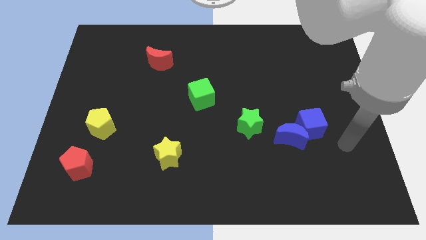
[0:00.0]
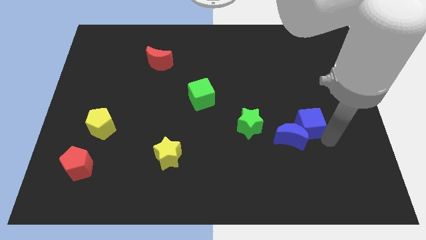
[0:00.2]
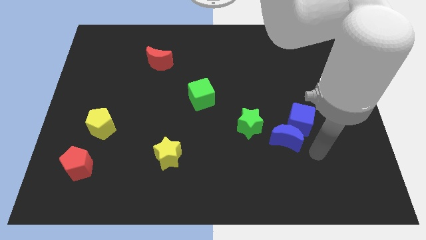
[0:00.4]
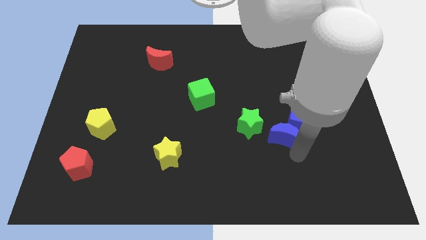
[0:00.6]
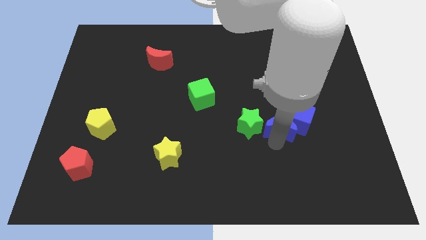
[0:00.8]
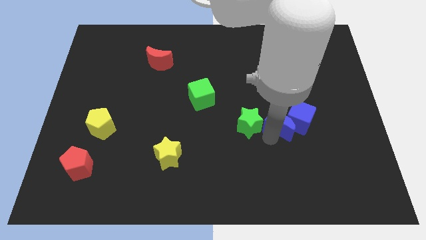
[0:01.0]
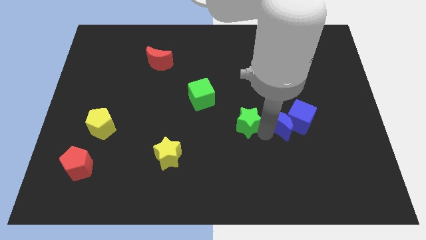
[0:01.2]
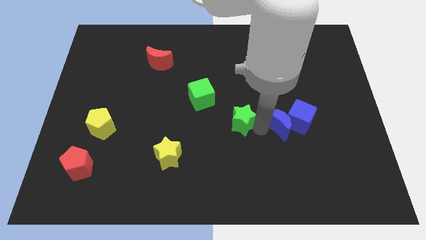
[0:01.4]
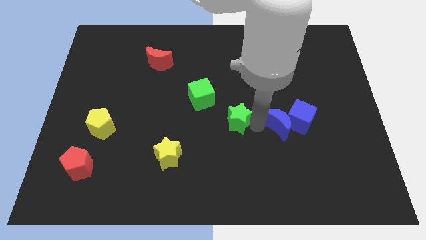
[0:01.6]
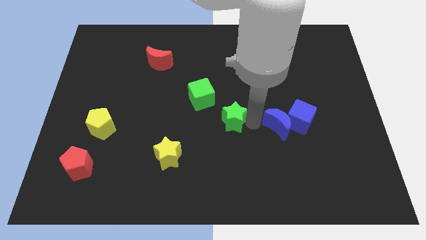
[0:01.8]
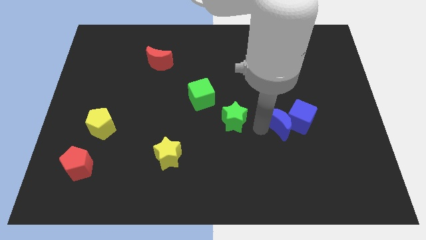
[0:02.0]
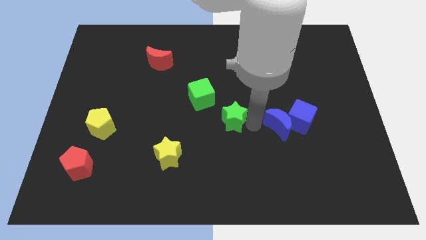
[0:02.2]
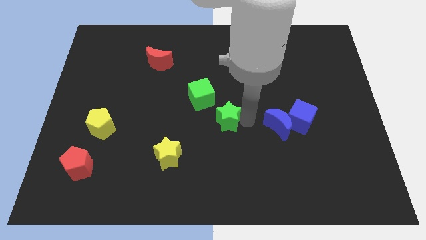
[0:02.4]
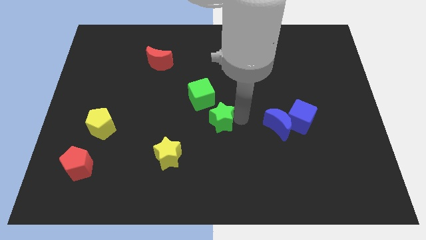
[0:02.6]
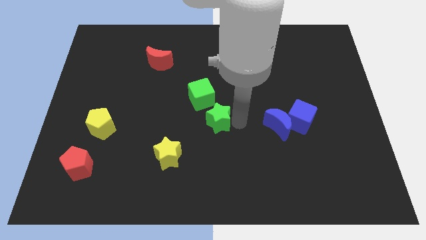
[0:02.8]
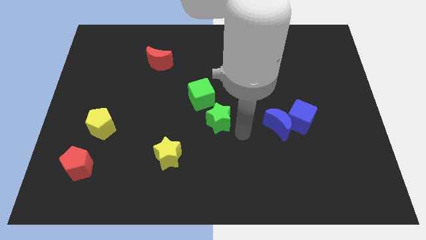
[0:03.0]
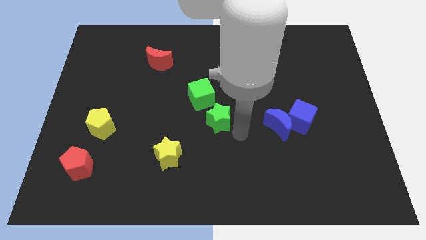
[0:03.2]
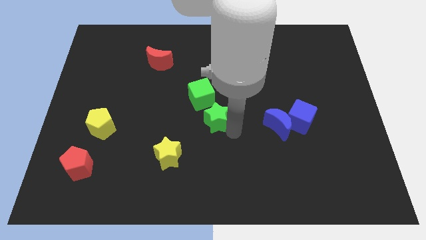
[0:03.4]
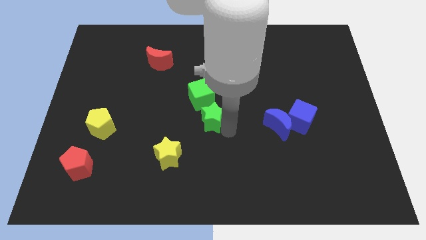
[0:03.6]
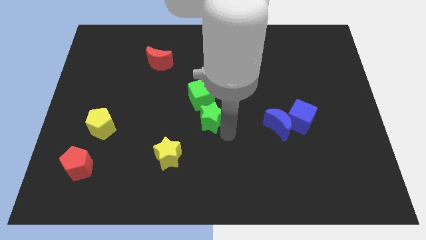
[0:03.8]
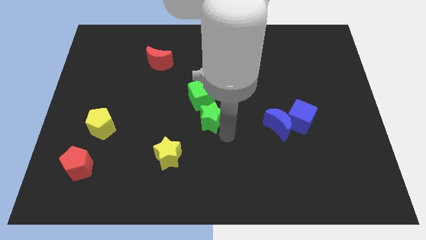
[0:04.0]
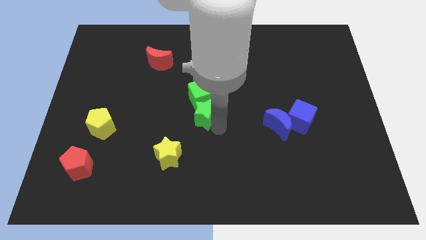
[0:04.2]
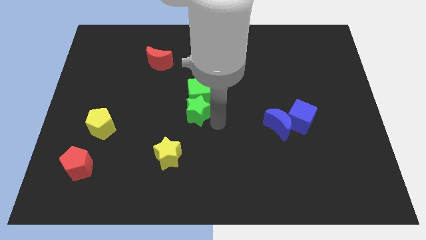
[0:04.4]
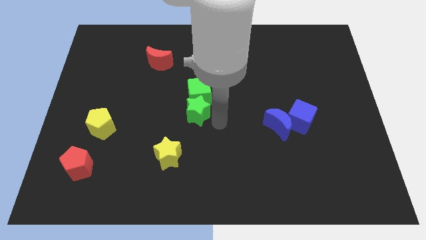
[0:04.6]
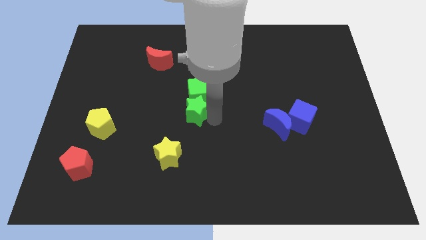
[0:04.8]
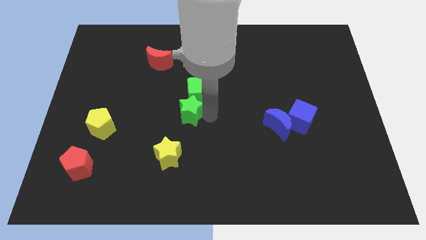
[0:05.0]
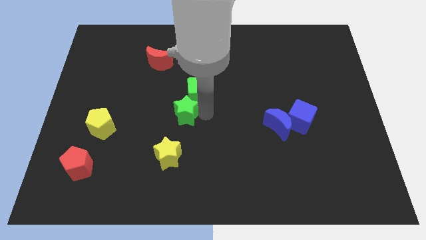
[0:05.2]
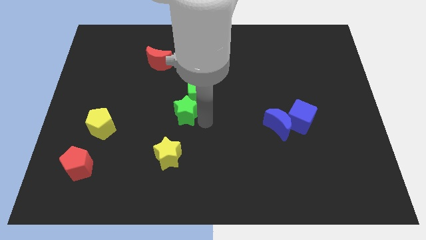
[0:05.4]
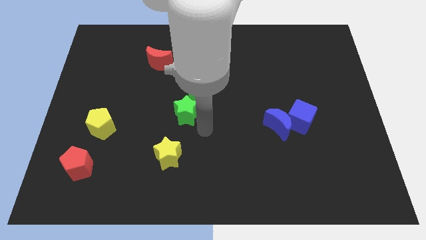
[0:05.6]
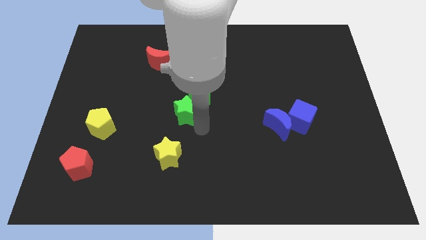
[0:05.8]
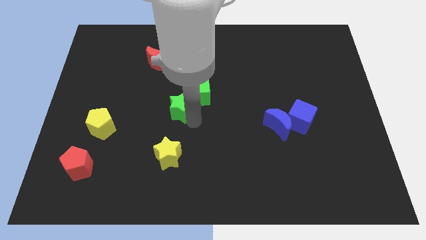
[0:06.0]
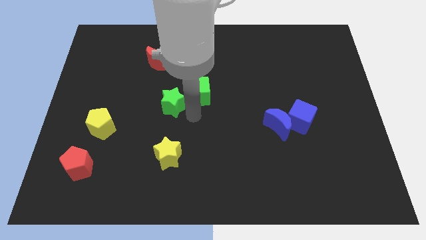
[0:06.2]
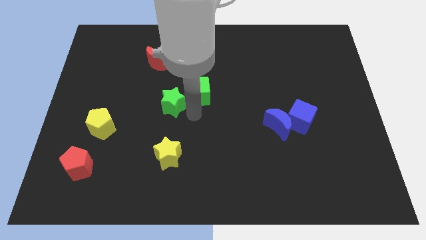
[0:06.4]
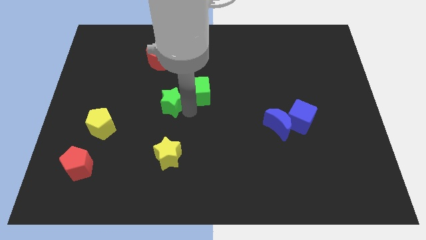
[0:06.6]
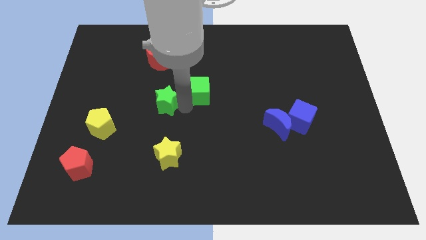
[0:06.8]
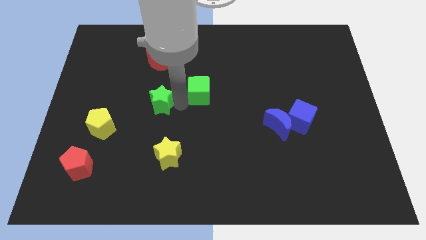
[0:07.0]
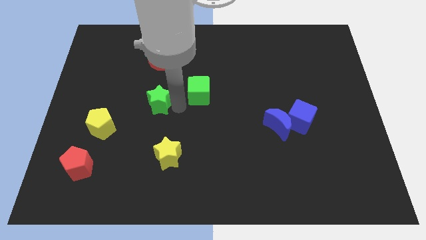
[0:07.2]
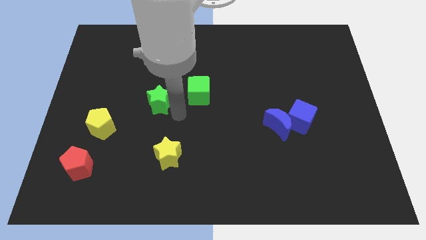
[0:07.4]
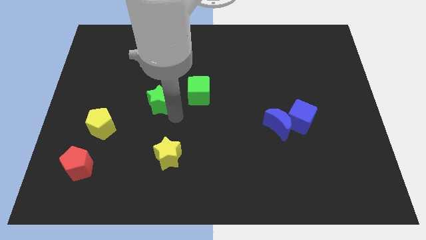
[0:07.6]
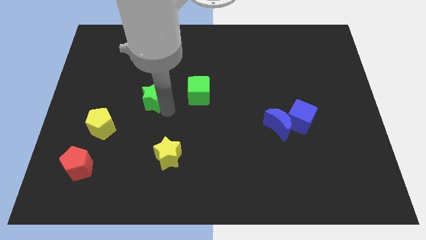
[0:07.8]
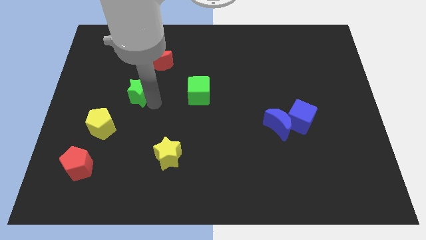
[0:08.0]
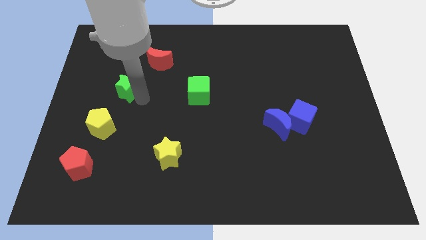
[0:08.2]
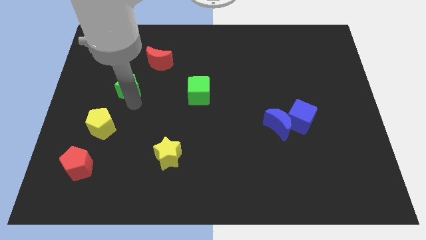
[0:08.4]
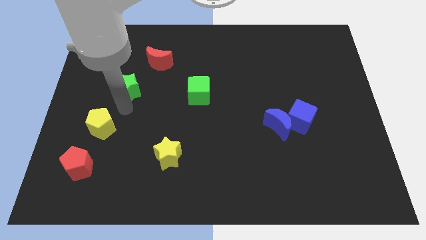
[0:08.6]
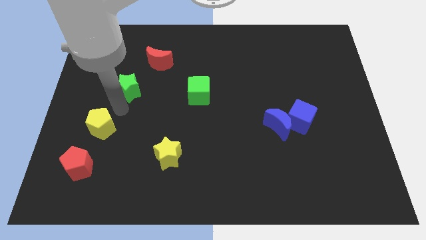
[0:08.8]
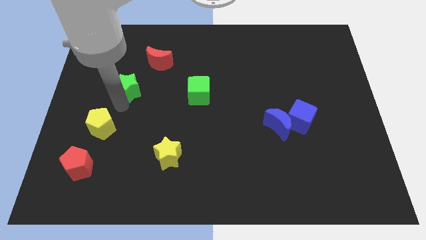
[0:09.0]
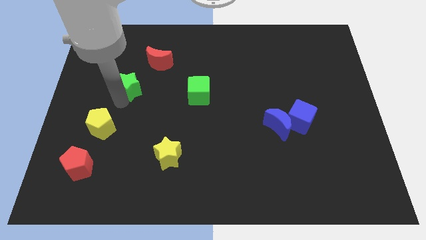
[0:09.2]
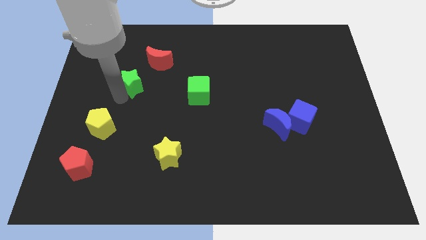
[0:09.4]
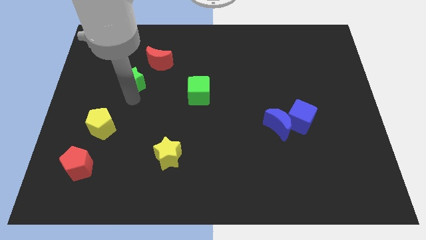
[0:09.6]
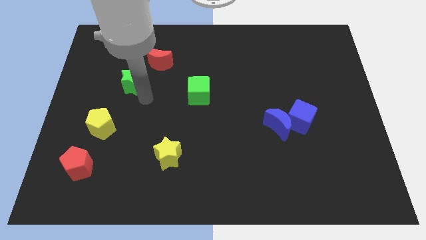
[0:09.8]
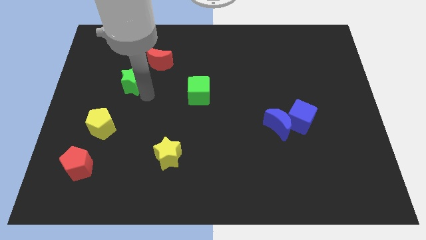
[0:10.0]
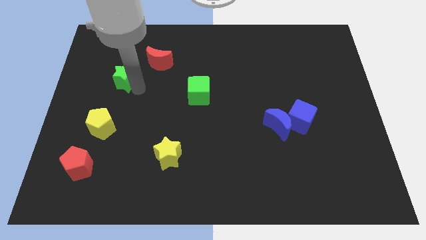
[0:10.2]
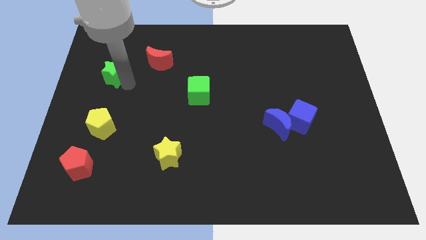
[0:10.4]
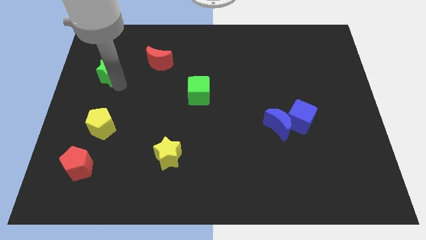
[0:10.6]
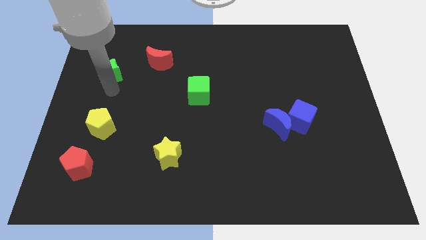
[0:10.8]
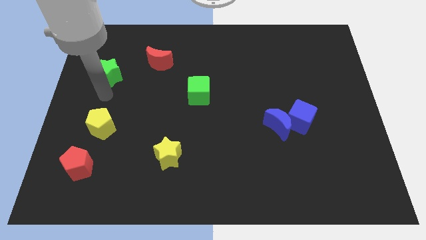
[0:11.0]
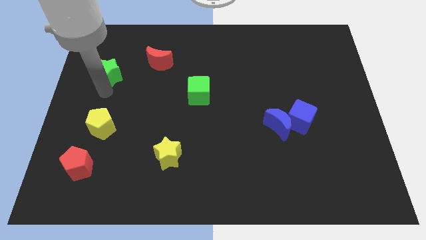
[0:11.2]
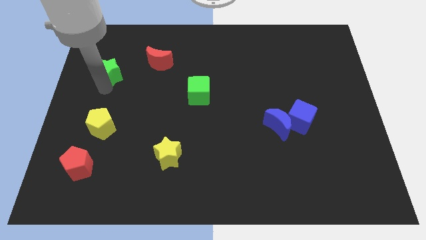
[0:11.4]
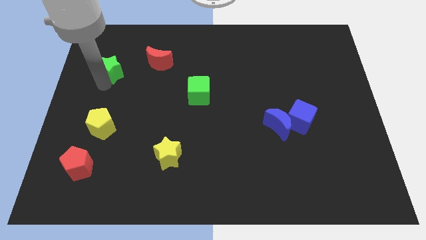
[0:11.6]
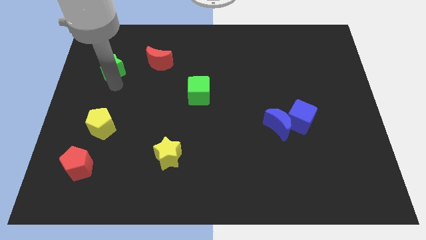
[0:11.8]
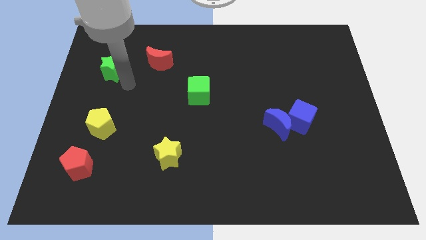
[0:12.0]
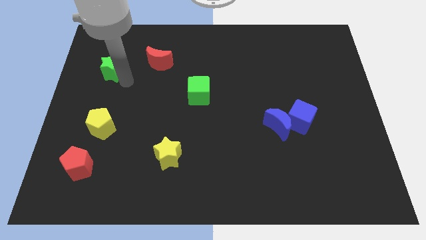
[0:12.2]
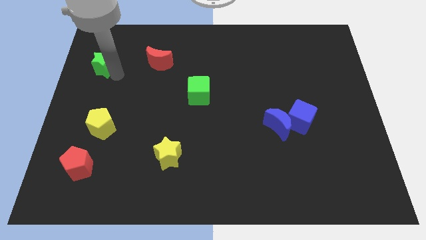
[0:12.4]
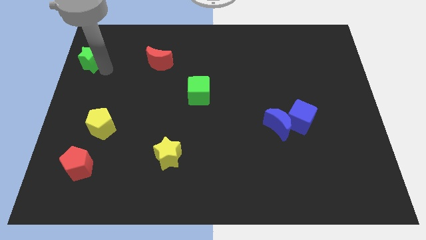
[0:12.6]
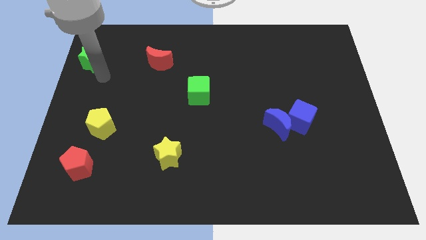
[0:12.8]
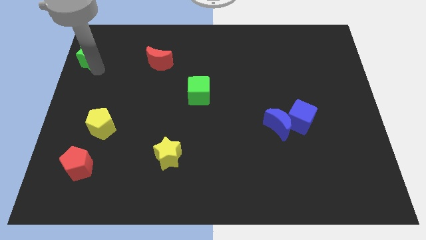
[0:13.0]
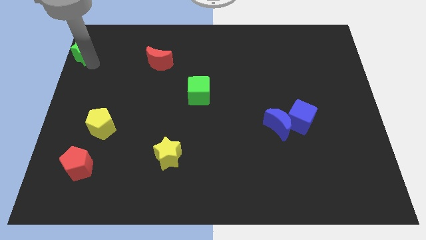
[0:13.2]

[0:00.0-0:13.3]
put the green star to the top left of the board
